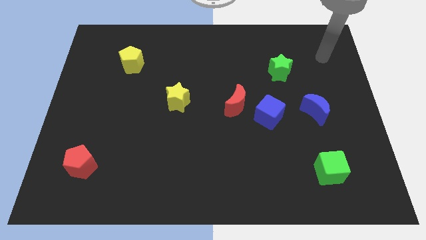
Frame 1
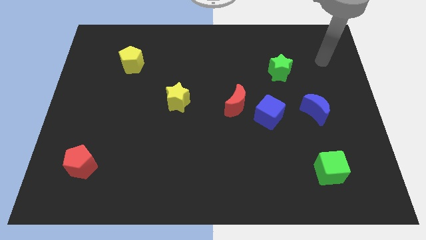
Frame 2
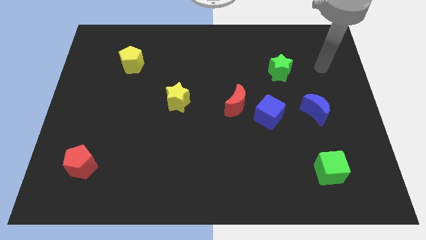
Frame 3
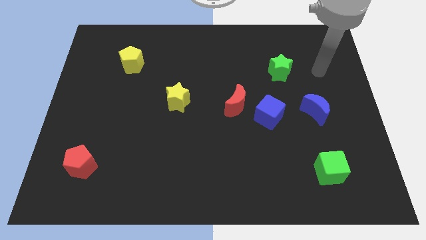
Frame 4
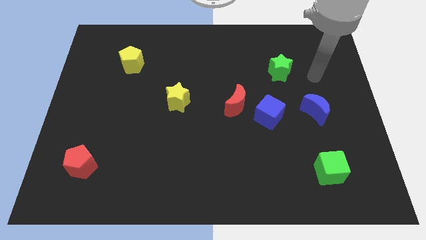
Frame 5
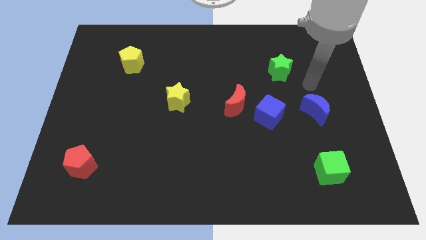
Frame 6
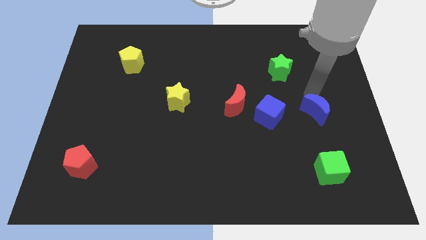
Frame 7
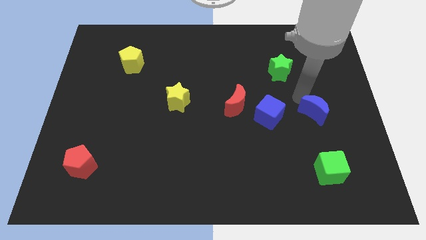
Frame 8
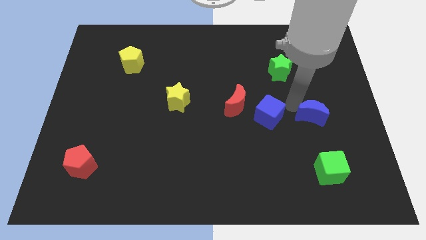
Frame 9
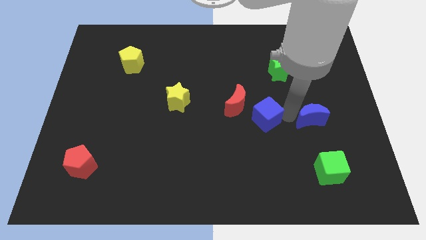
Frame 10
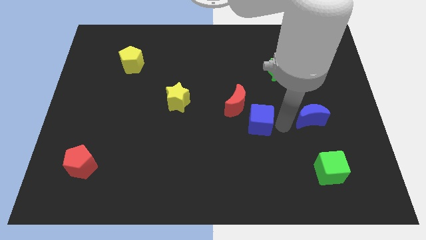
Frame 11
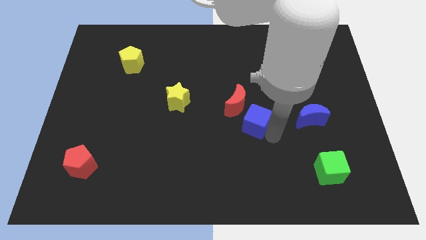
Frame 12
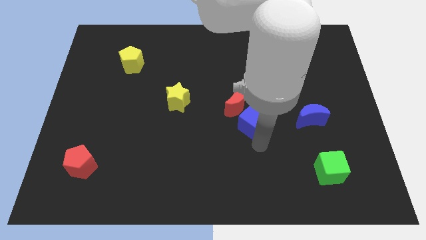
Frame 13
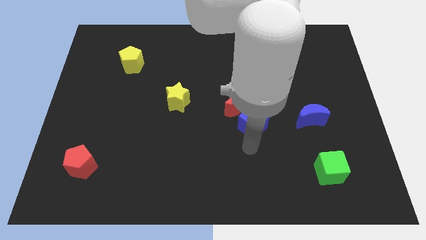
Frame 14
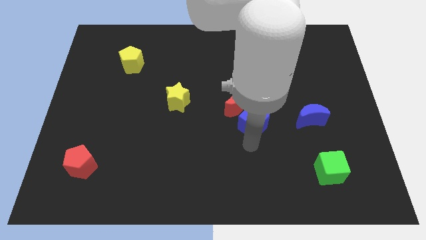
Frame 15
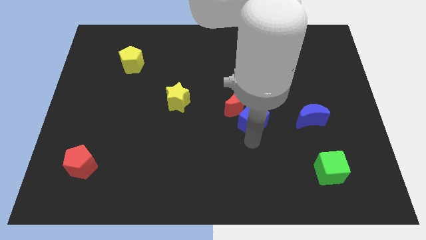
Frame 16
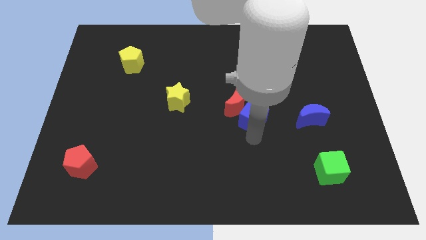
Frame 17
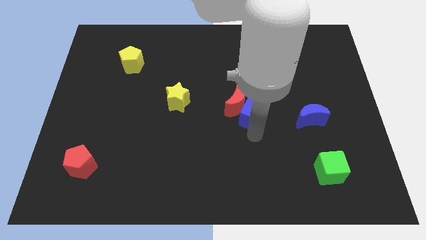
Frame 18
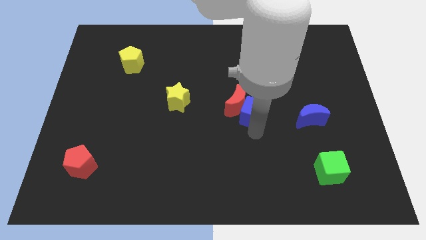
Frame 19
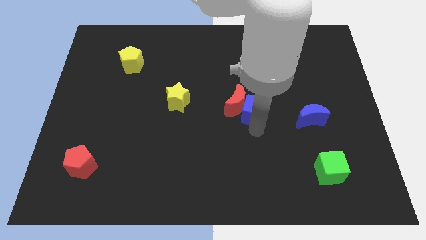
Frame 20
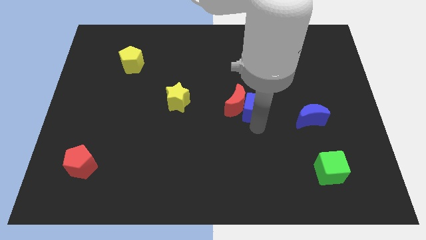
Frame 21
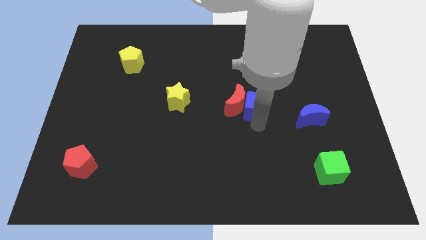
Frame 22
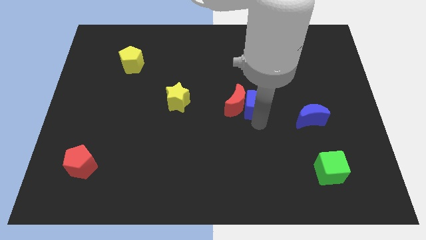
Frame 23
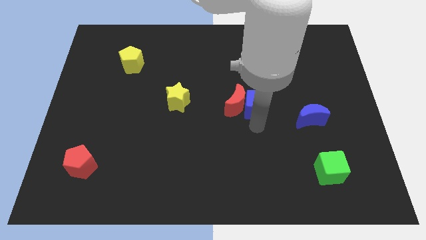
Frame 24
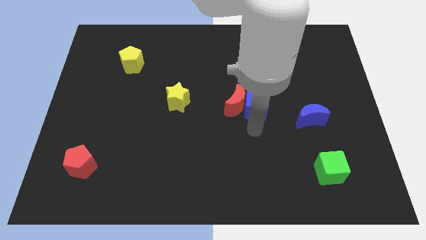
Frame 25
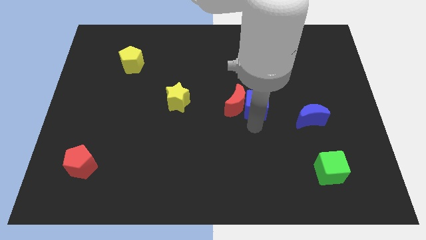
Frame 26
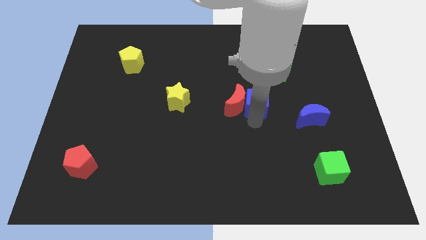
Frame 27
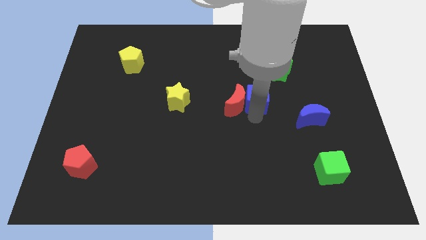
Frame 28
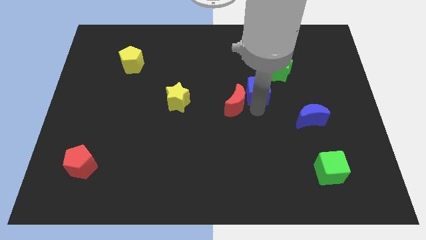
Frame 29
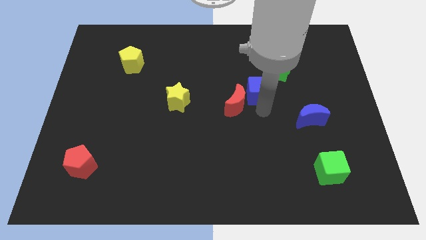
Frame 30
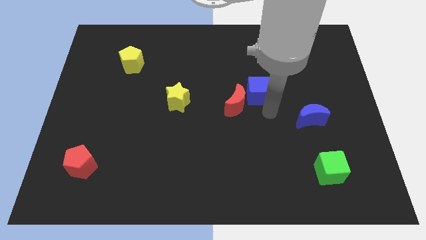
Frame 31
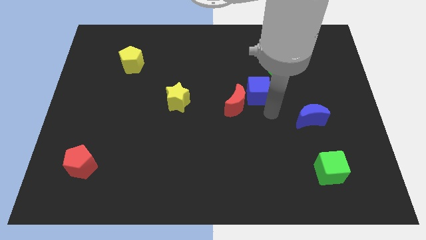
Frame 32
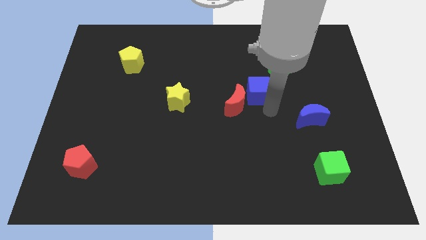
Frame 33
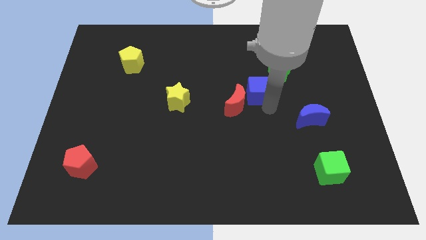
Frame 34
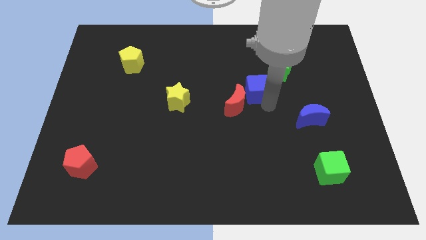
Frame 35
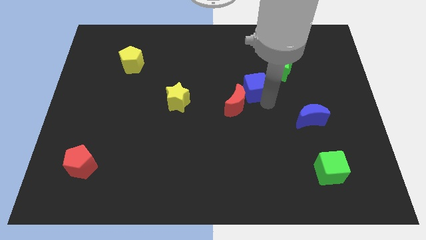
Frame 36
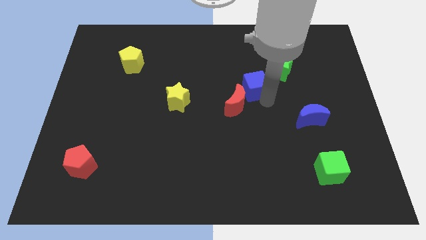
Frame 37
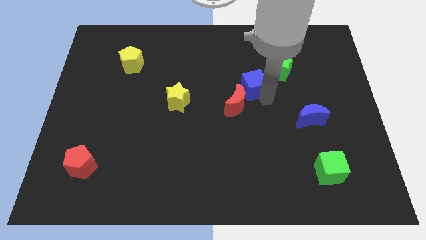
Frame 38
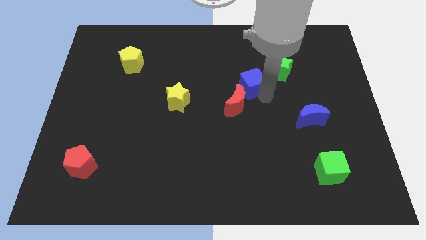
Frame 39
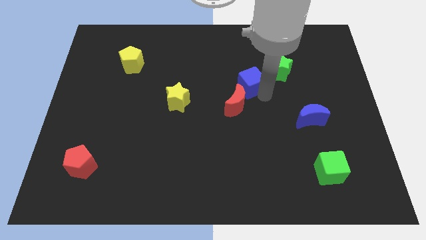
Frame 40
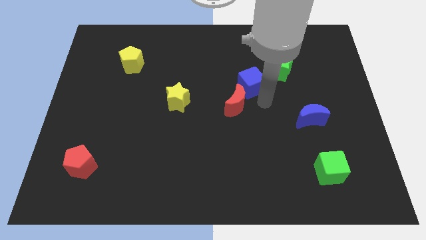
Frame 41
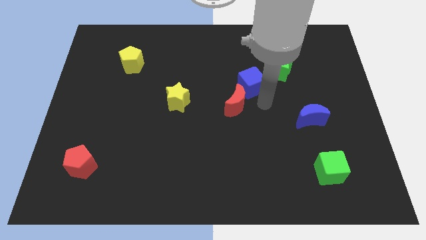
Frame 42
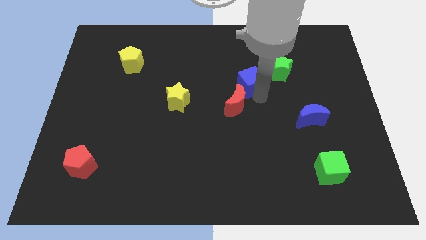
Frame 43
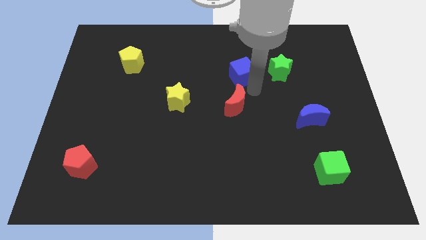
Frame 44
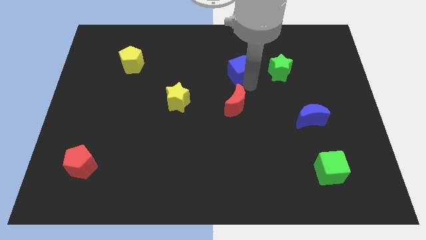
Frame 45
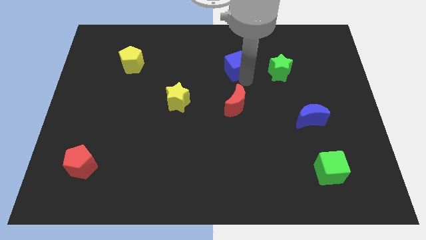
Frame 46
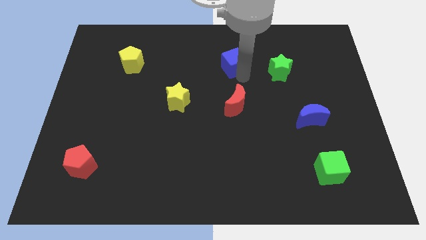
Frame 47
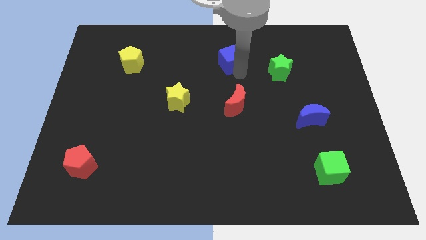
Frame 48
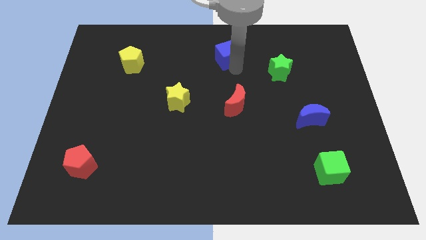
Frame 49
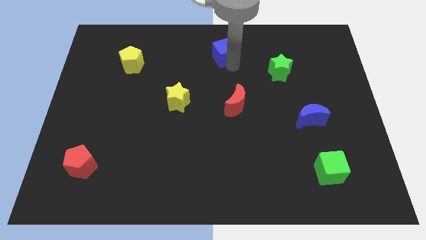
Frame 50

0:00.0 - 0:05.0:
slide the blue cube to the top

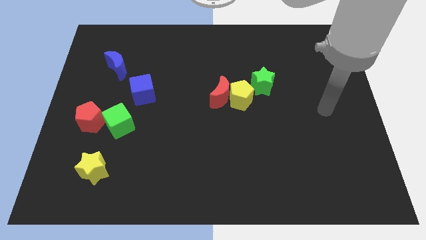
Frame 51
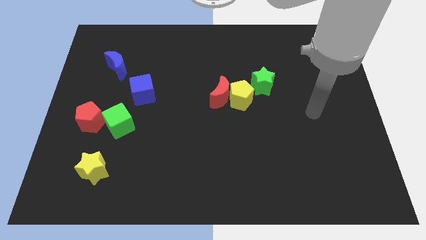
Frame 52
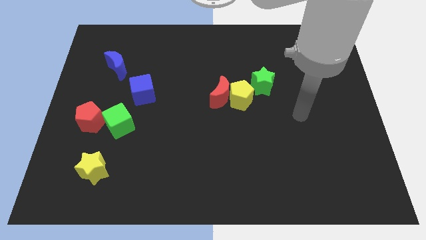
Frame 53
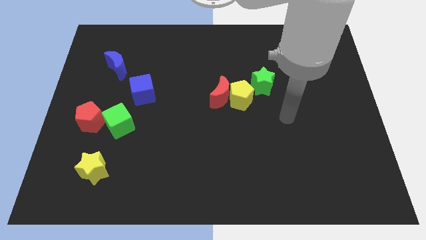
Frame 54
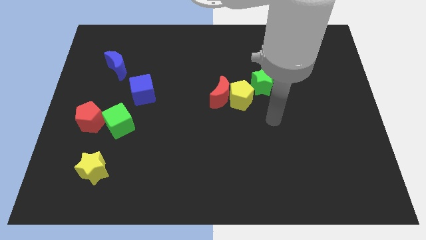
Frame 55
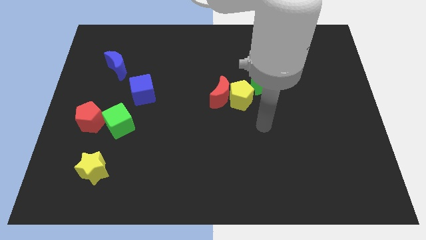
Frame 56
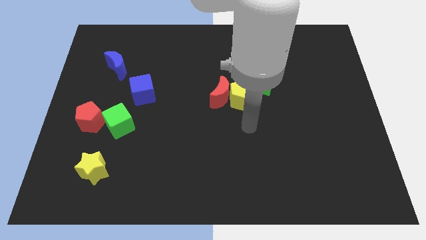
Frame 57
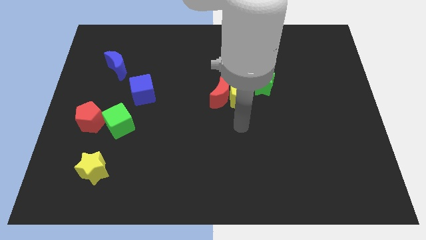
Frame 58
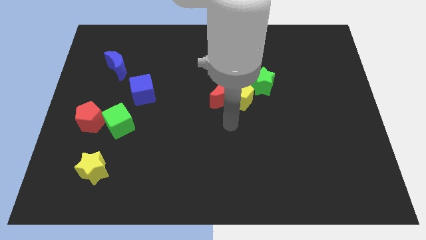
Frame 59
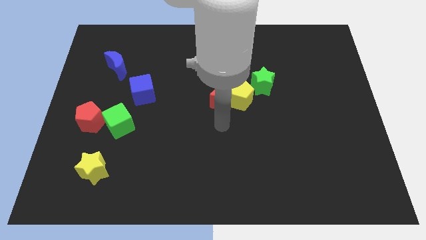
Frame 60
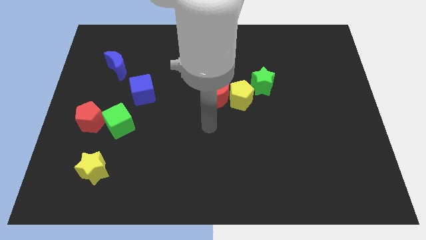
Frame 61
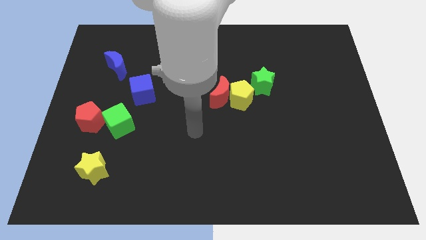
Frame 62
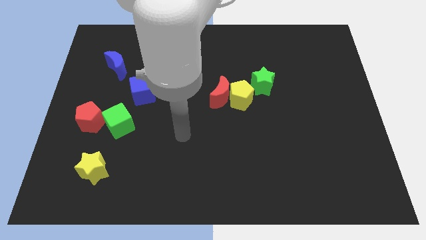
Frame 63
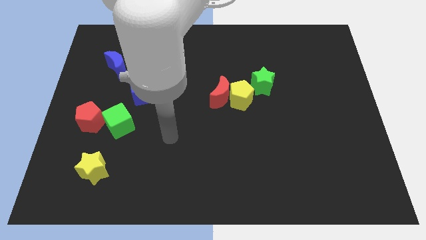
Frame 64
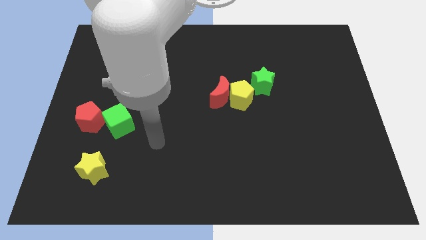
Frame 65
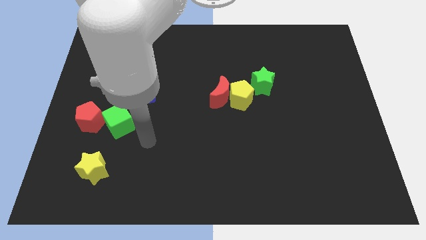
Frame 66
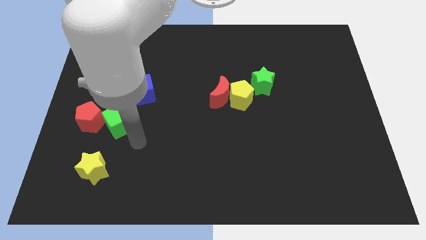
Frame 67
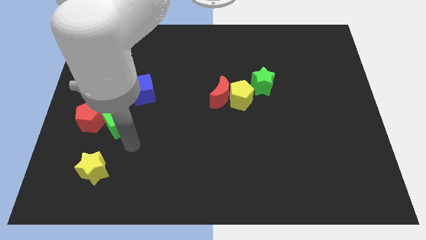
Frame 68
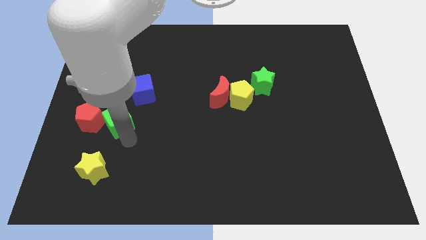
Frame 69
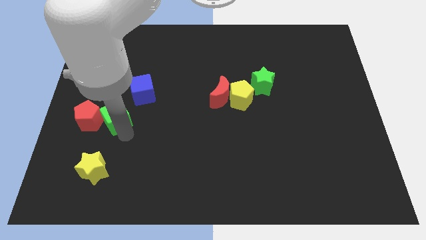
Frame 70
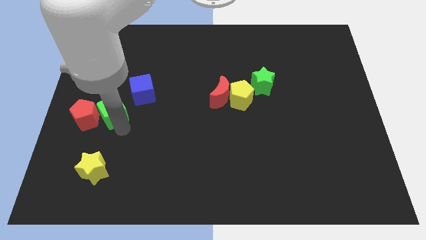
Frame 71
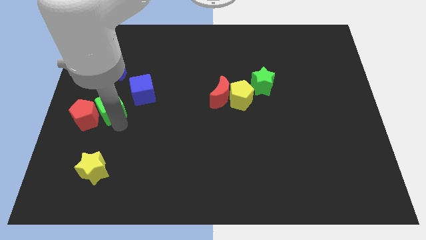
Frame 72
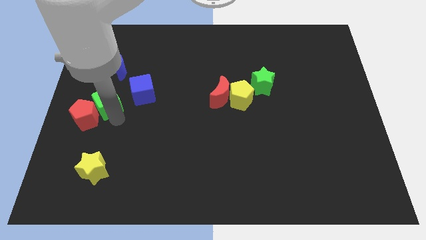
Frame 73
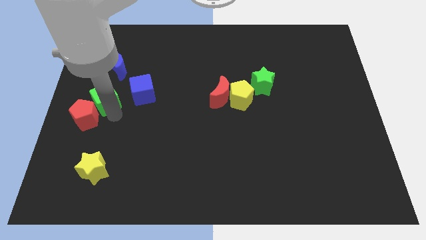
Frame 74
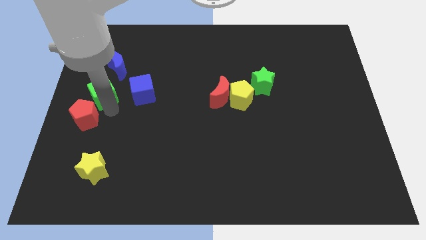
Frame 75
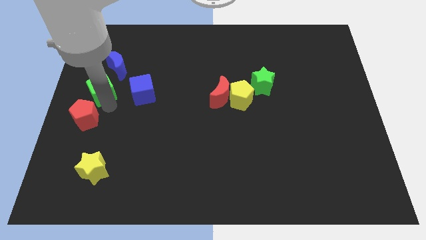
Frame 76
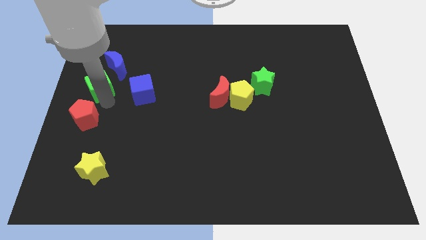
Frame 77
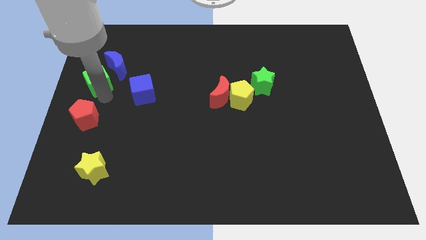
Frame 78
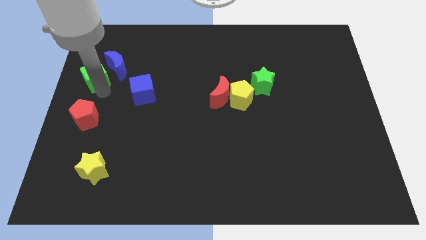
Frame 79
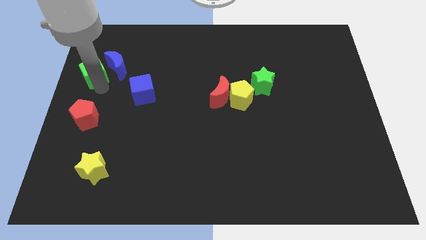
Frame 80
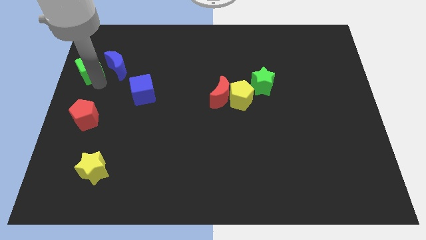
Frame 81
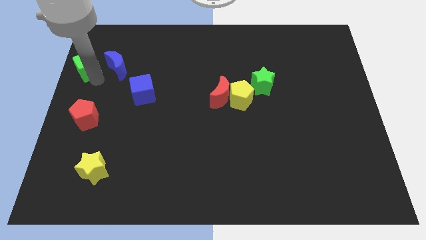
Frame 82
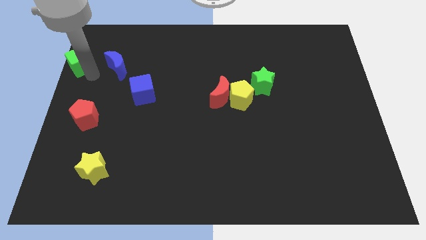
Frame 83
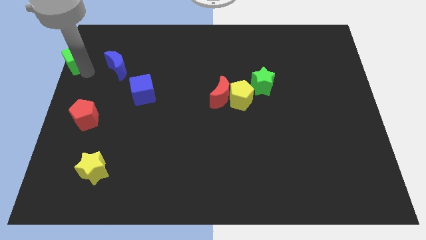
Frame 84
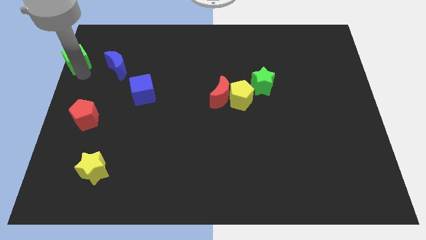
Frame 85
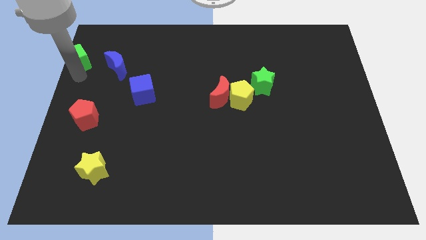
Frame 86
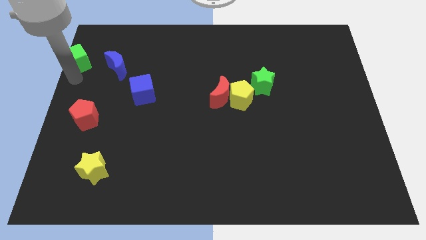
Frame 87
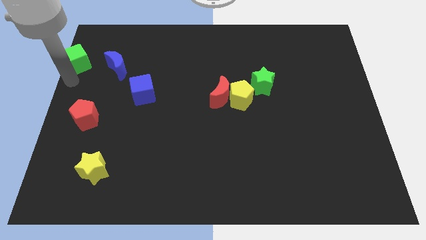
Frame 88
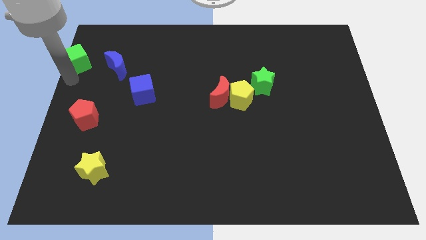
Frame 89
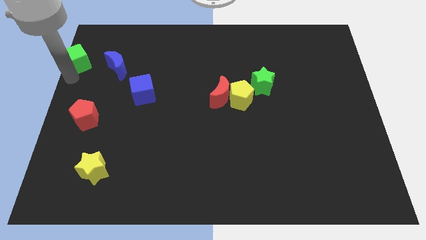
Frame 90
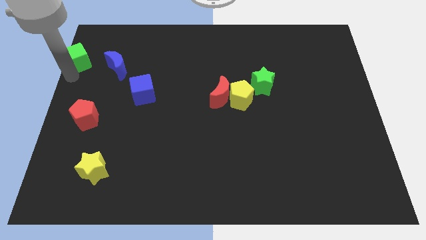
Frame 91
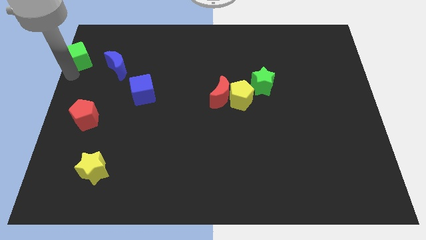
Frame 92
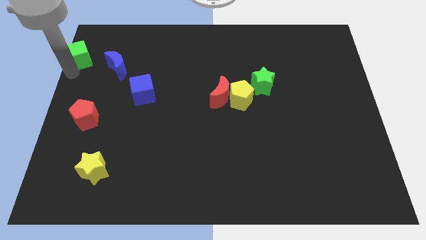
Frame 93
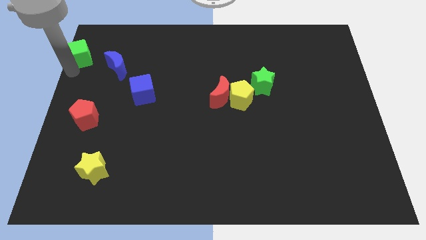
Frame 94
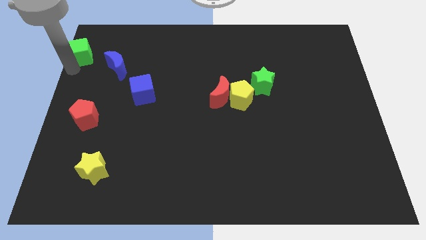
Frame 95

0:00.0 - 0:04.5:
move the green cube to the top left
